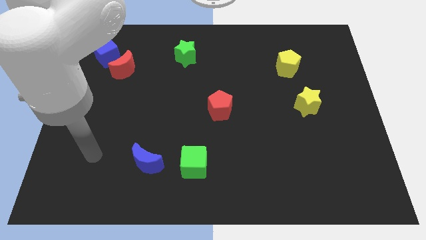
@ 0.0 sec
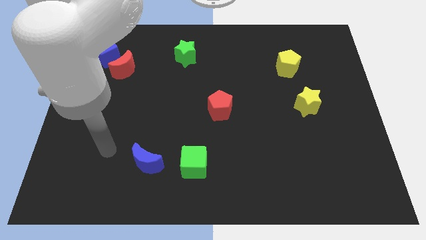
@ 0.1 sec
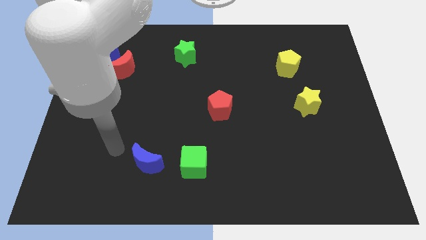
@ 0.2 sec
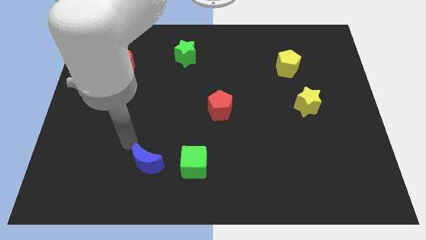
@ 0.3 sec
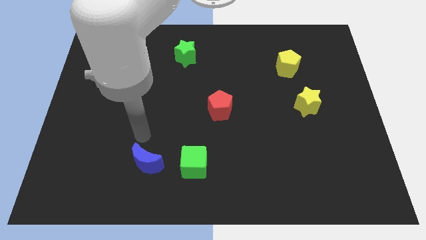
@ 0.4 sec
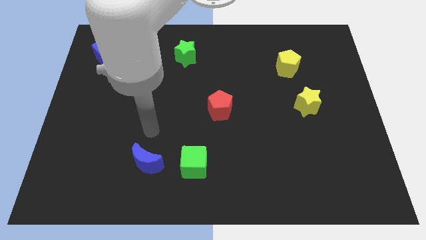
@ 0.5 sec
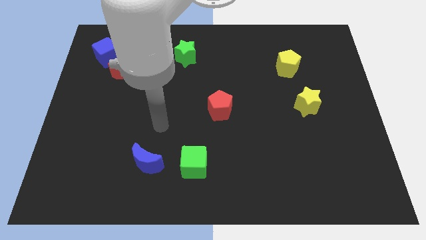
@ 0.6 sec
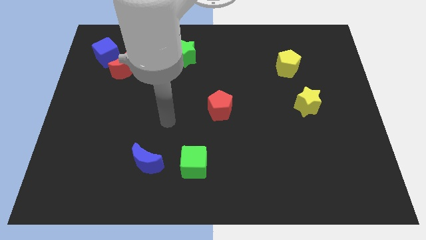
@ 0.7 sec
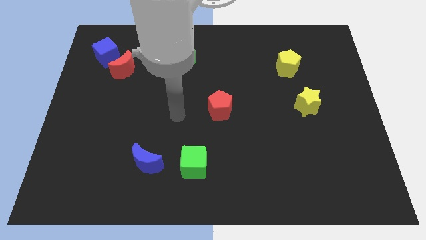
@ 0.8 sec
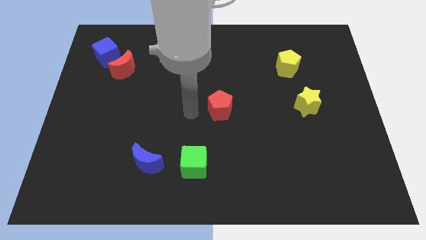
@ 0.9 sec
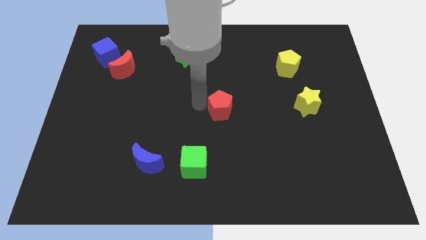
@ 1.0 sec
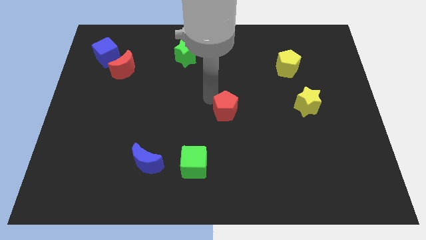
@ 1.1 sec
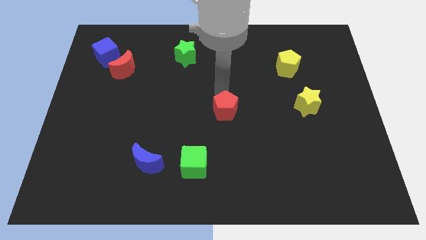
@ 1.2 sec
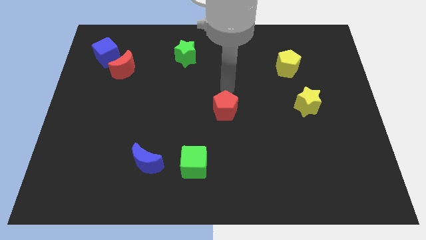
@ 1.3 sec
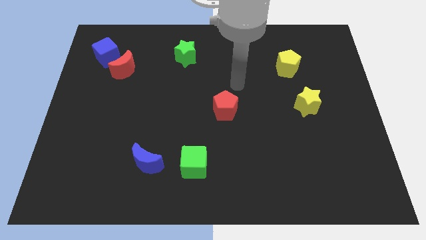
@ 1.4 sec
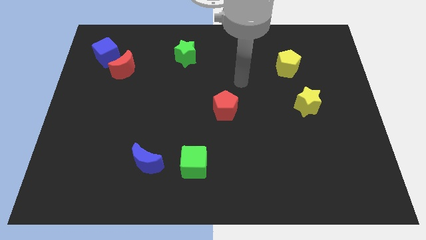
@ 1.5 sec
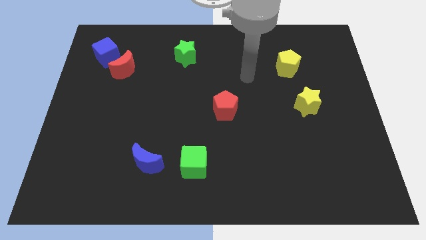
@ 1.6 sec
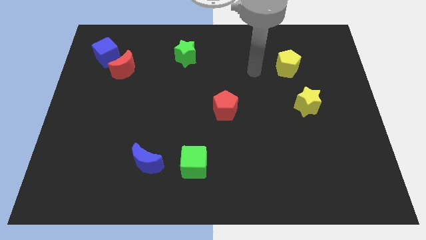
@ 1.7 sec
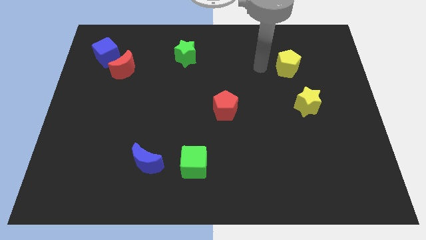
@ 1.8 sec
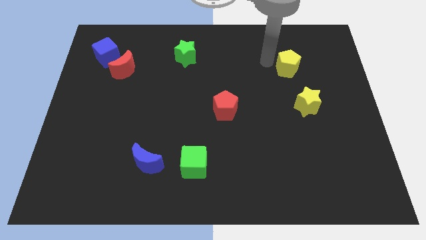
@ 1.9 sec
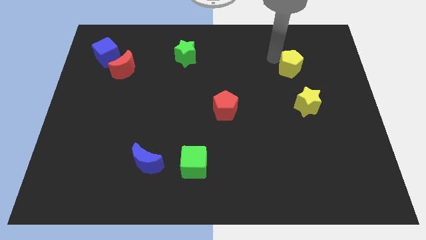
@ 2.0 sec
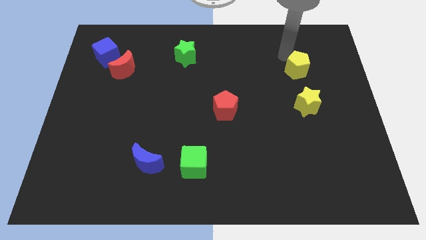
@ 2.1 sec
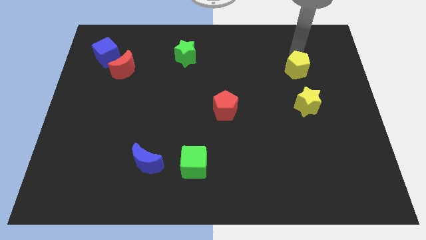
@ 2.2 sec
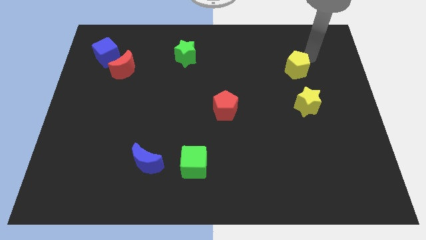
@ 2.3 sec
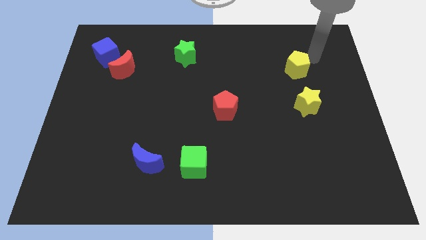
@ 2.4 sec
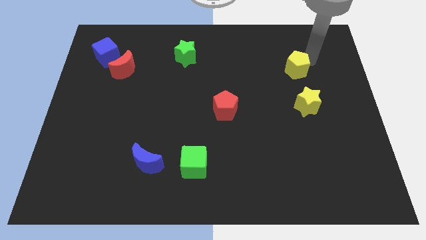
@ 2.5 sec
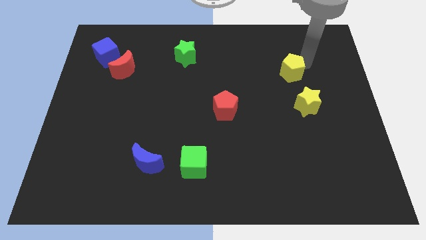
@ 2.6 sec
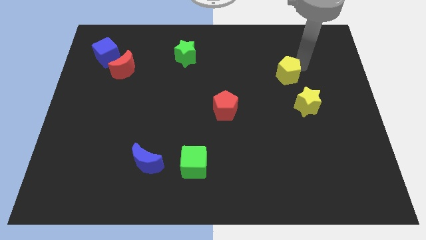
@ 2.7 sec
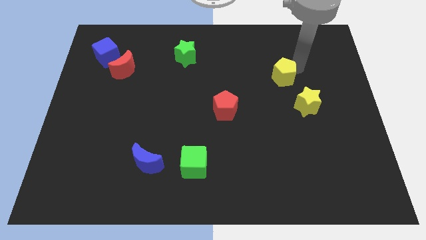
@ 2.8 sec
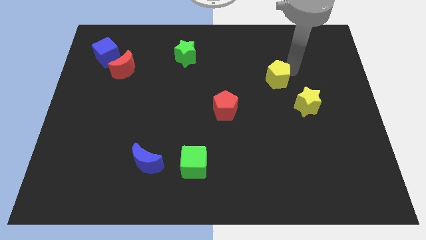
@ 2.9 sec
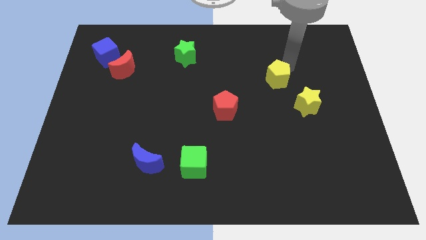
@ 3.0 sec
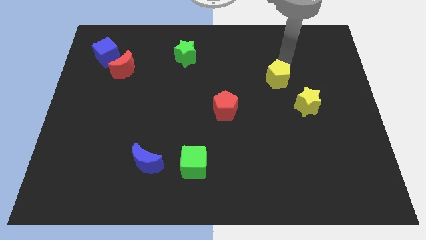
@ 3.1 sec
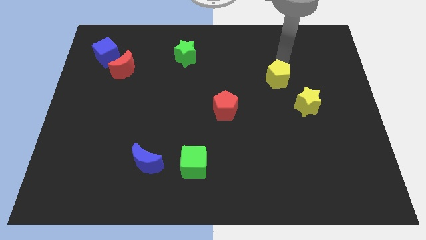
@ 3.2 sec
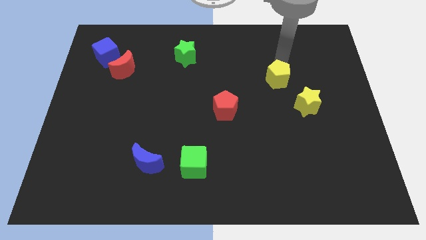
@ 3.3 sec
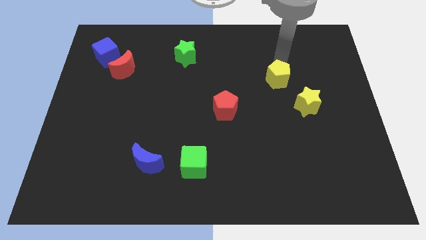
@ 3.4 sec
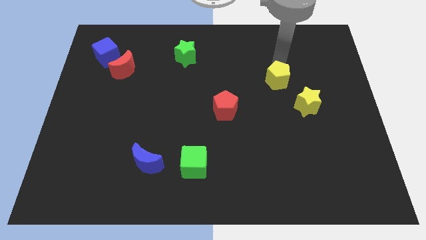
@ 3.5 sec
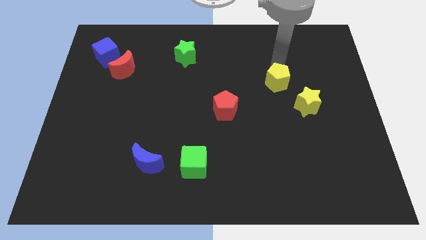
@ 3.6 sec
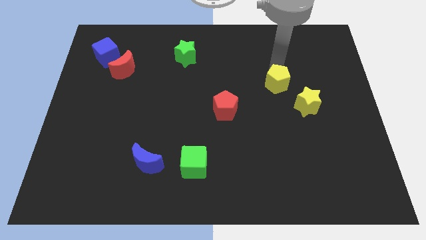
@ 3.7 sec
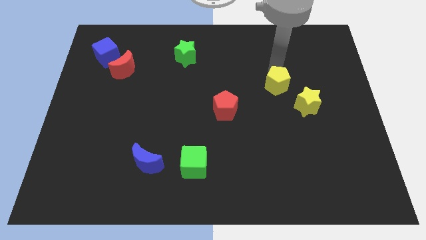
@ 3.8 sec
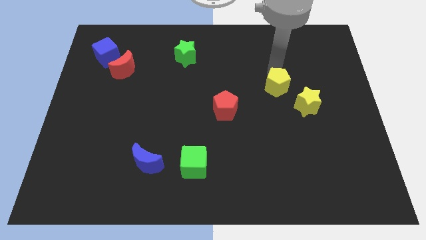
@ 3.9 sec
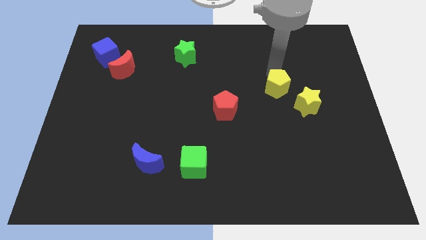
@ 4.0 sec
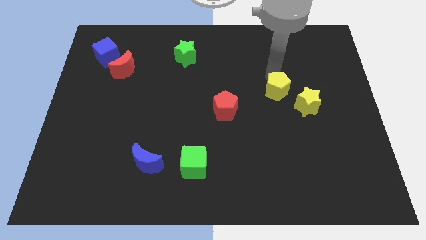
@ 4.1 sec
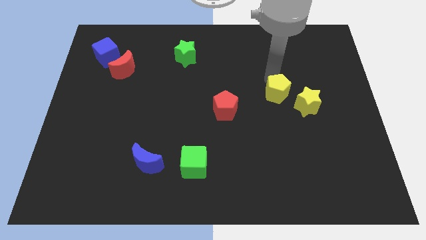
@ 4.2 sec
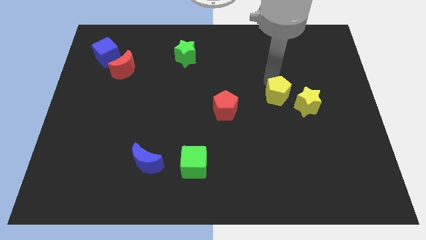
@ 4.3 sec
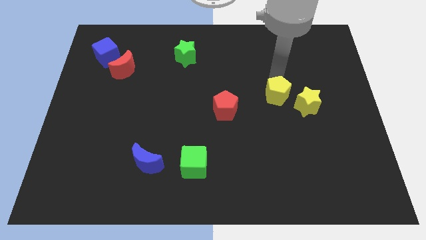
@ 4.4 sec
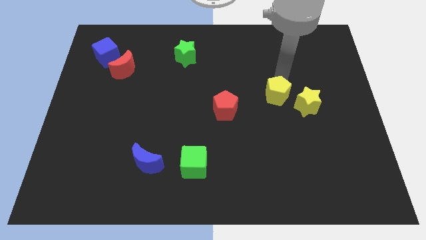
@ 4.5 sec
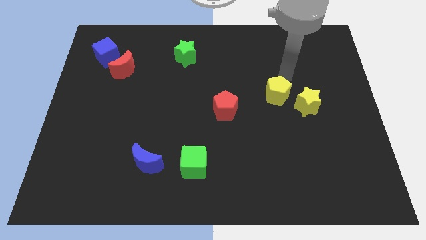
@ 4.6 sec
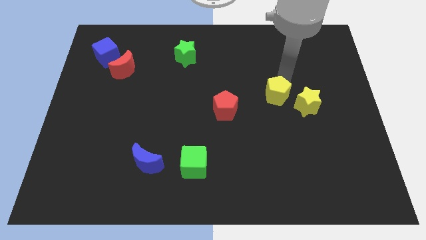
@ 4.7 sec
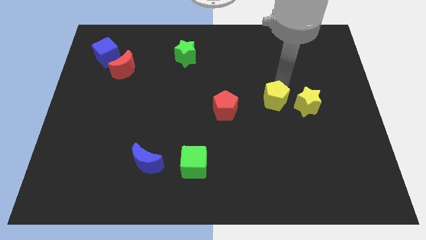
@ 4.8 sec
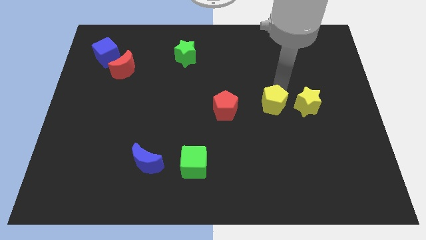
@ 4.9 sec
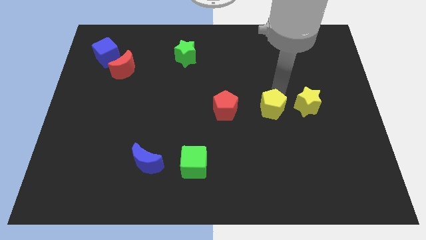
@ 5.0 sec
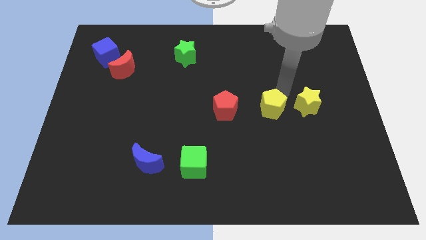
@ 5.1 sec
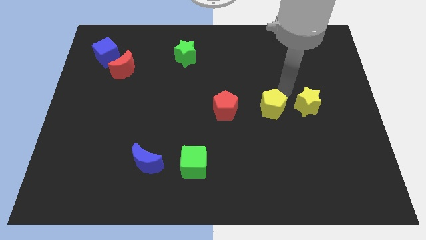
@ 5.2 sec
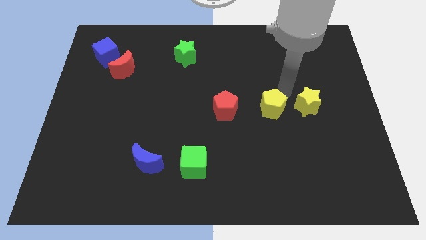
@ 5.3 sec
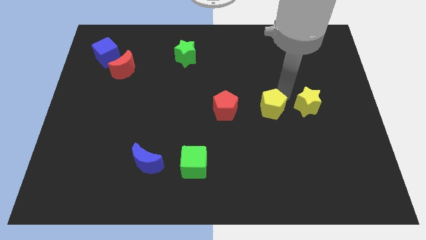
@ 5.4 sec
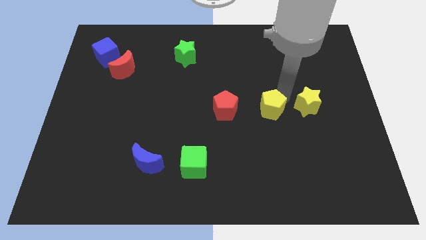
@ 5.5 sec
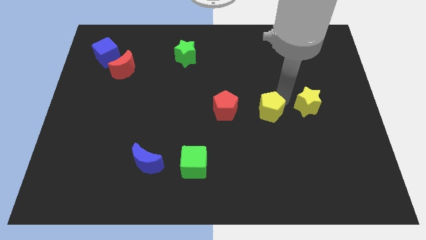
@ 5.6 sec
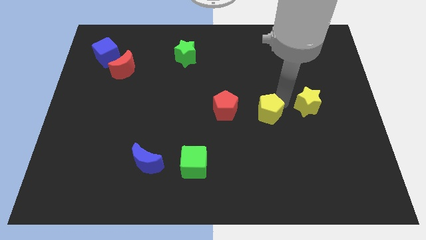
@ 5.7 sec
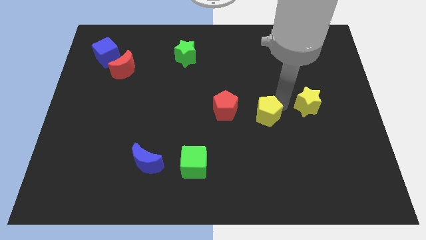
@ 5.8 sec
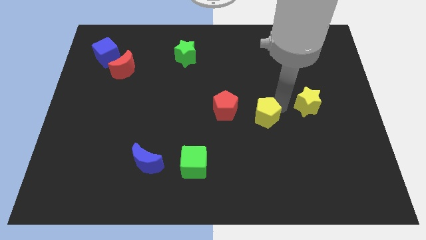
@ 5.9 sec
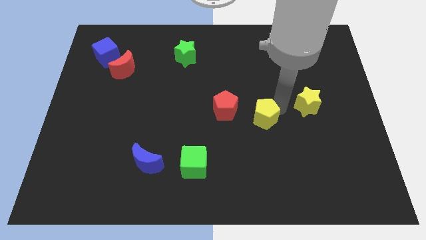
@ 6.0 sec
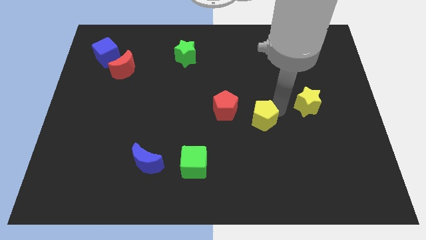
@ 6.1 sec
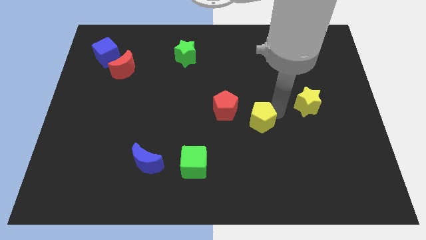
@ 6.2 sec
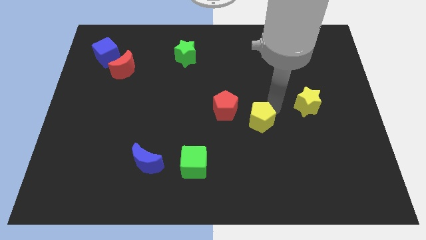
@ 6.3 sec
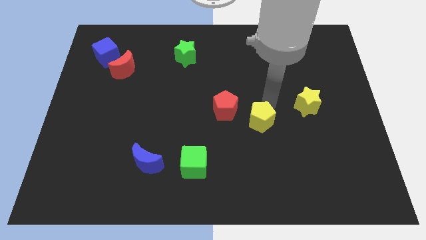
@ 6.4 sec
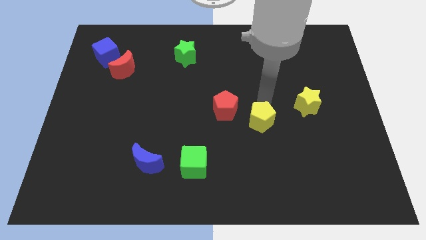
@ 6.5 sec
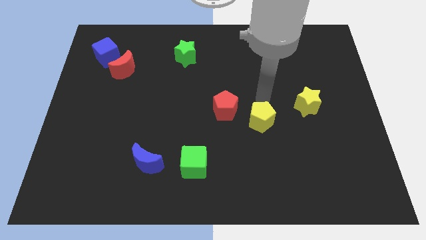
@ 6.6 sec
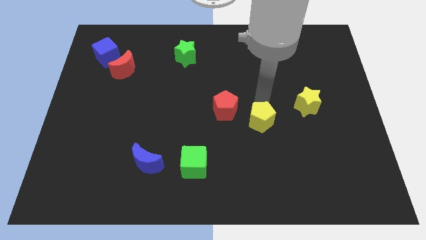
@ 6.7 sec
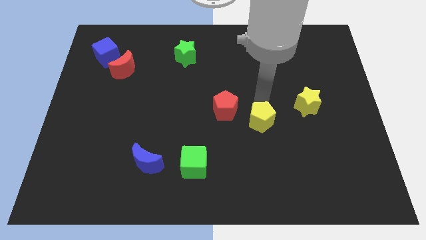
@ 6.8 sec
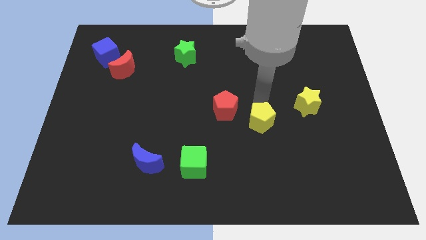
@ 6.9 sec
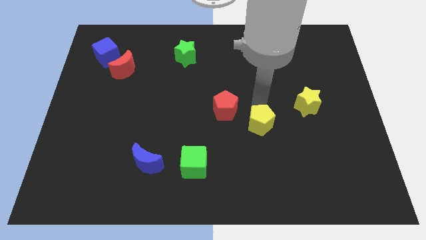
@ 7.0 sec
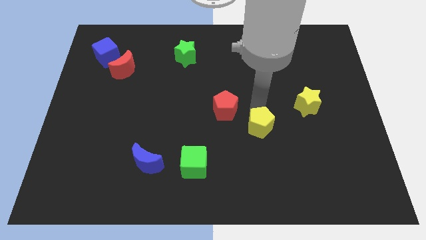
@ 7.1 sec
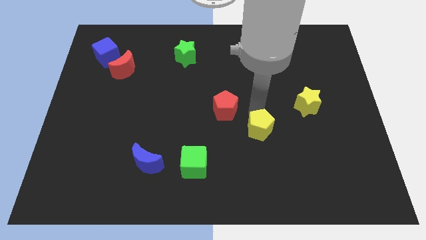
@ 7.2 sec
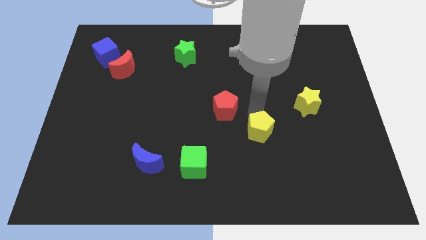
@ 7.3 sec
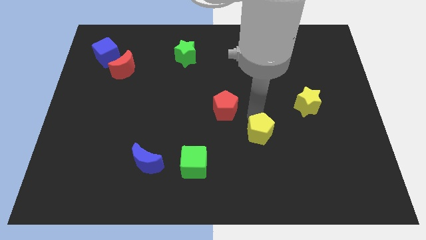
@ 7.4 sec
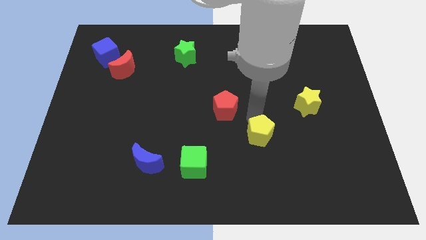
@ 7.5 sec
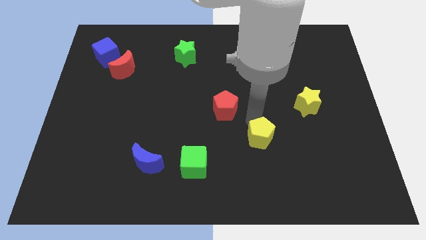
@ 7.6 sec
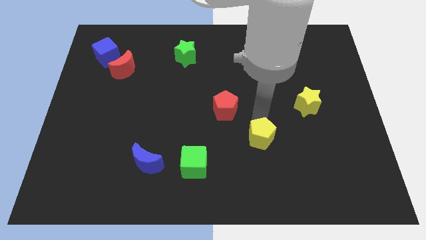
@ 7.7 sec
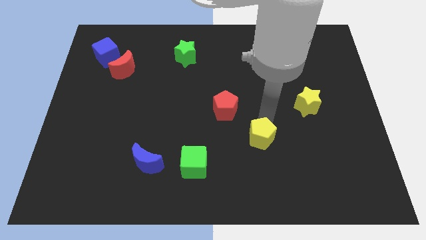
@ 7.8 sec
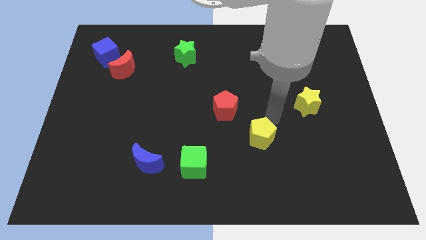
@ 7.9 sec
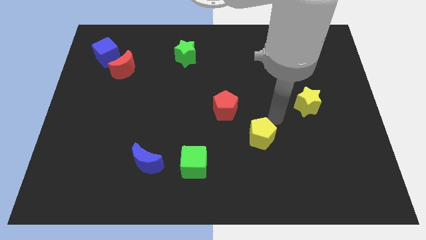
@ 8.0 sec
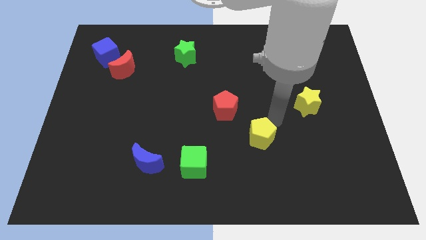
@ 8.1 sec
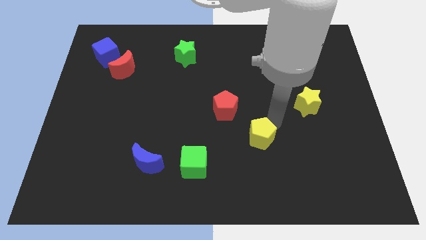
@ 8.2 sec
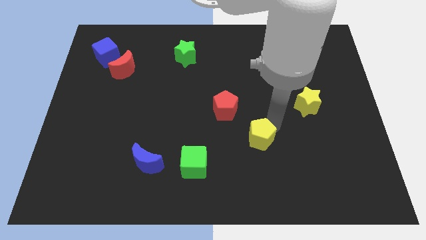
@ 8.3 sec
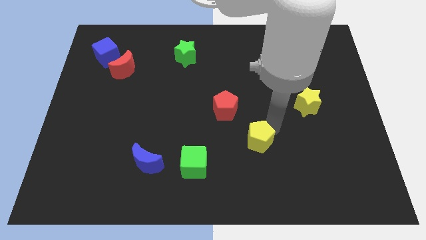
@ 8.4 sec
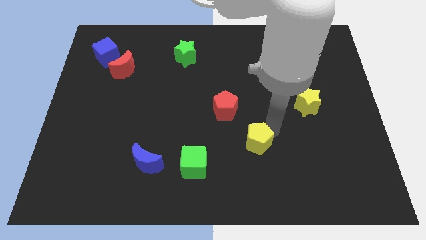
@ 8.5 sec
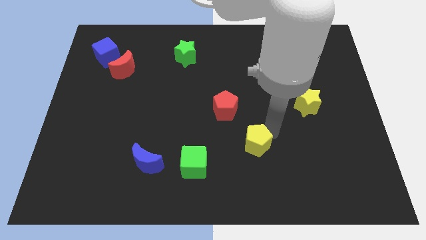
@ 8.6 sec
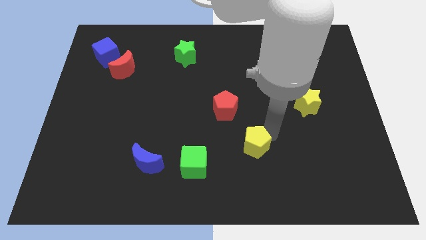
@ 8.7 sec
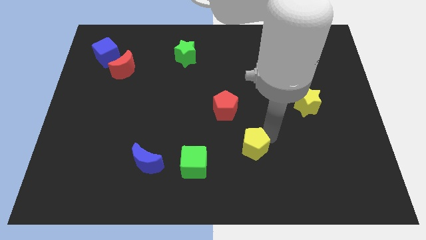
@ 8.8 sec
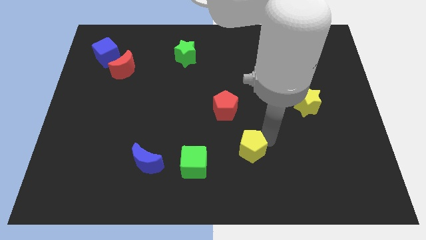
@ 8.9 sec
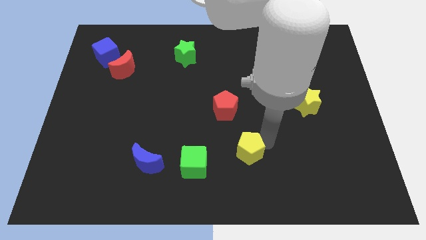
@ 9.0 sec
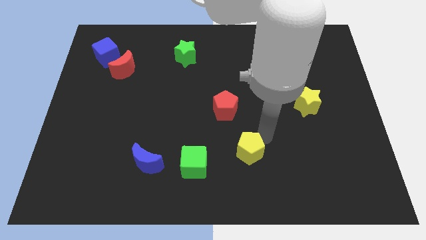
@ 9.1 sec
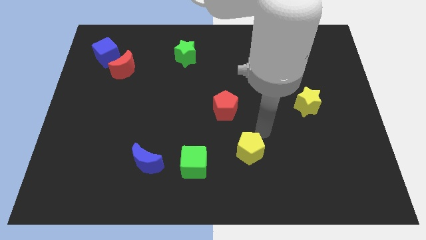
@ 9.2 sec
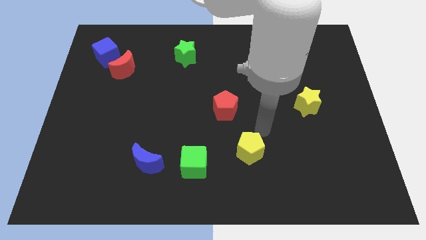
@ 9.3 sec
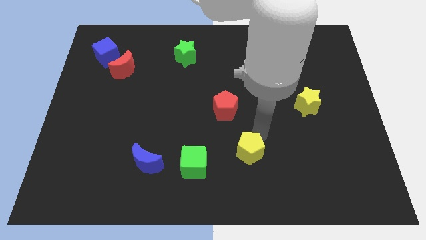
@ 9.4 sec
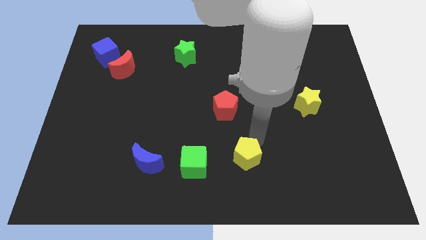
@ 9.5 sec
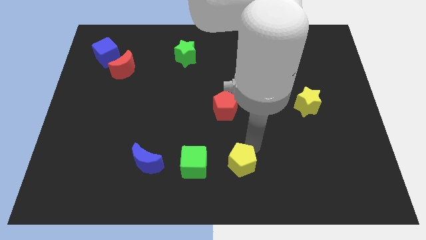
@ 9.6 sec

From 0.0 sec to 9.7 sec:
move the yellow pentagon to the bottom side
